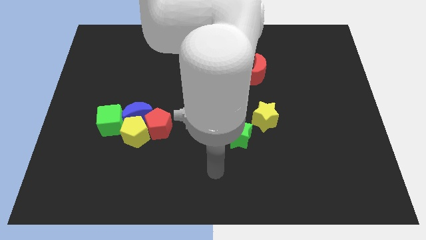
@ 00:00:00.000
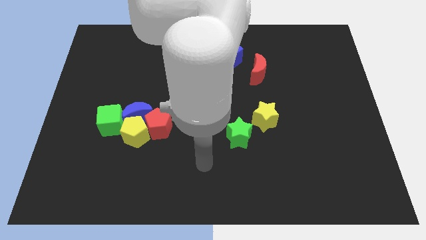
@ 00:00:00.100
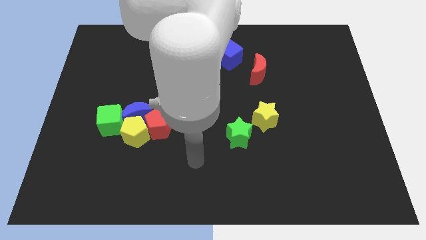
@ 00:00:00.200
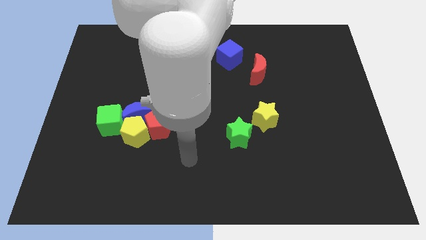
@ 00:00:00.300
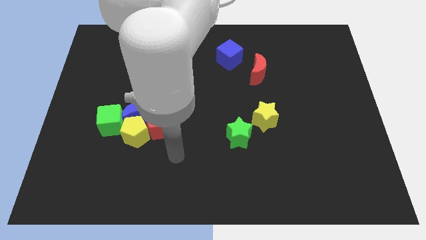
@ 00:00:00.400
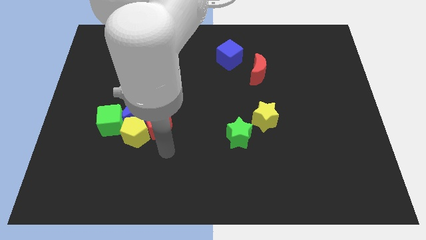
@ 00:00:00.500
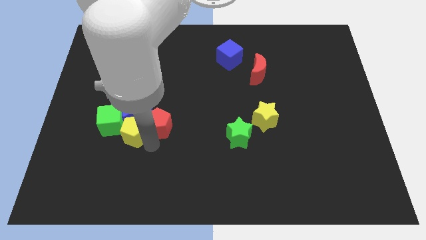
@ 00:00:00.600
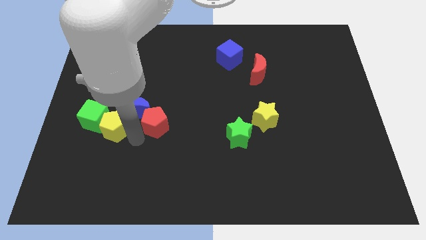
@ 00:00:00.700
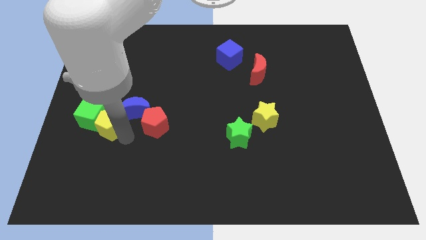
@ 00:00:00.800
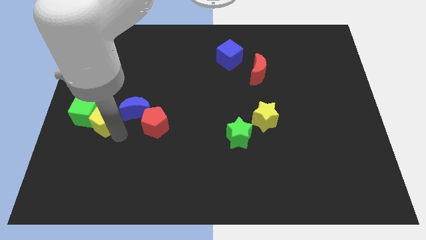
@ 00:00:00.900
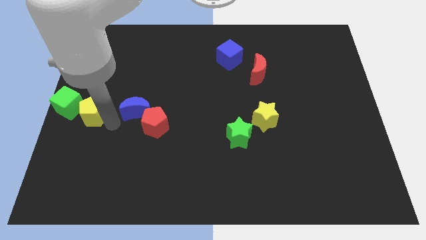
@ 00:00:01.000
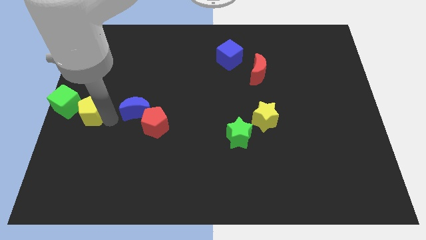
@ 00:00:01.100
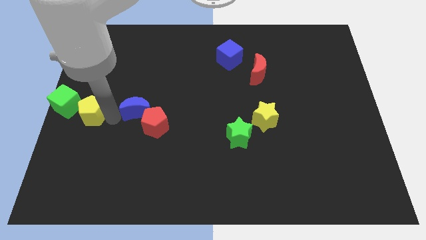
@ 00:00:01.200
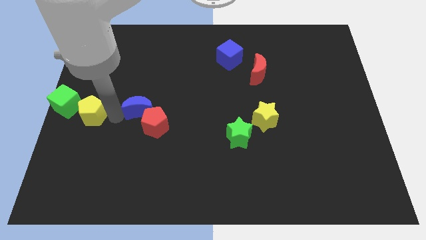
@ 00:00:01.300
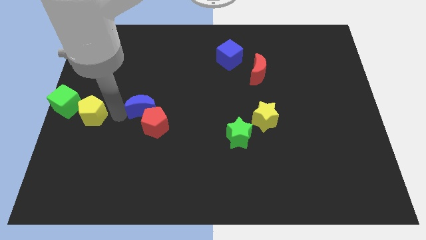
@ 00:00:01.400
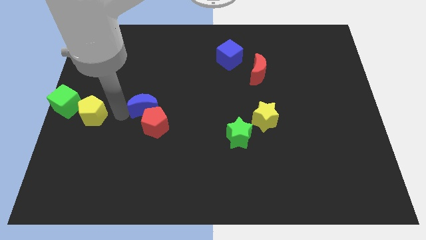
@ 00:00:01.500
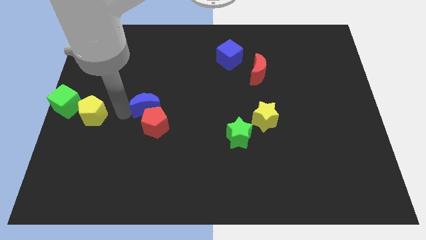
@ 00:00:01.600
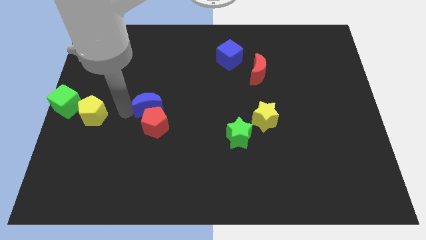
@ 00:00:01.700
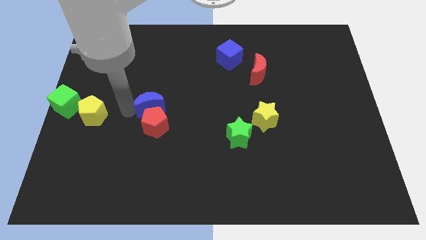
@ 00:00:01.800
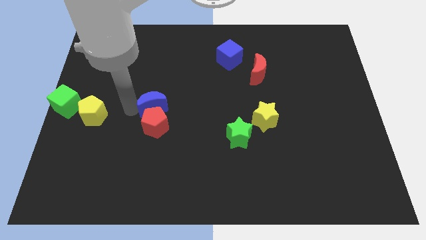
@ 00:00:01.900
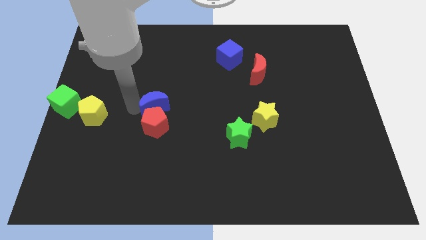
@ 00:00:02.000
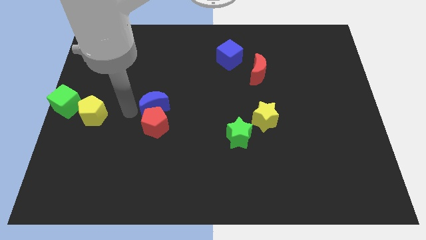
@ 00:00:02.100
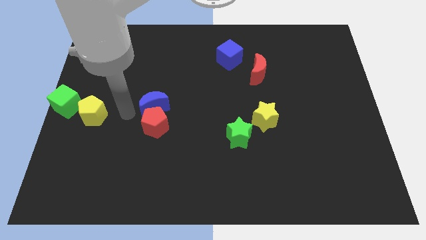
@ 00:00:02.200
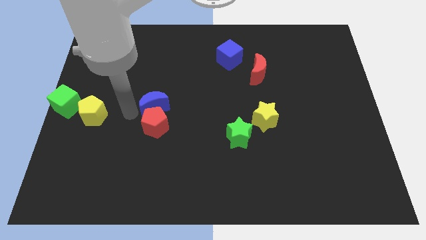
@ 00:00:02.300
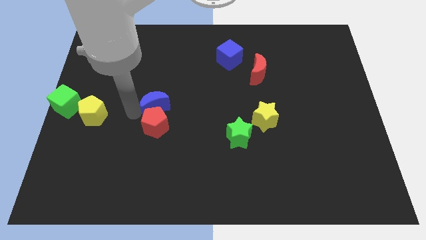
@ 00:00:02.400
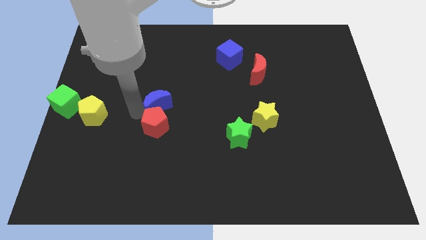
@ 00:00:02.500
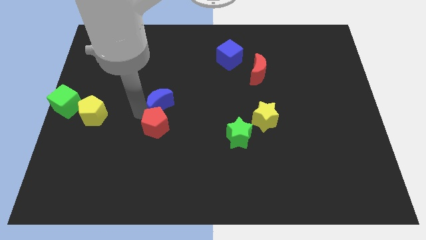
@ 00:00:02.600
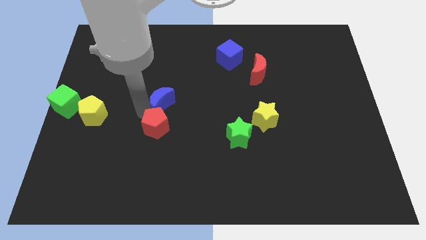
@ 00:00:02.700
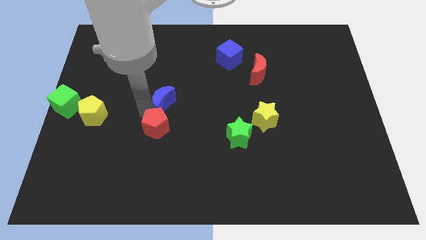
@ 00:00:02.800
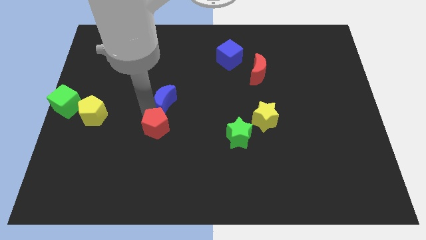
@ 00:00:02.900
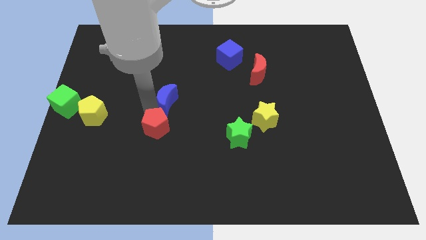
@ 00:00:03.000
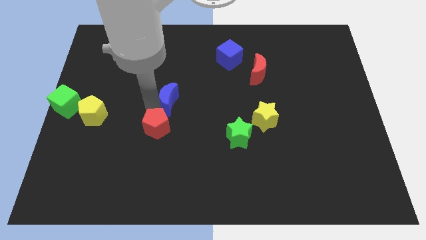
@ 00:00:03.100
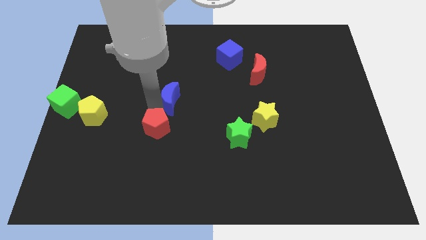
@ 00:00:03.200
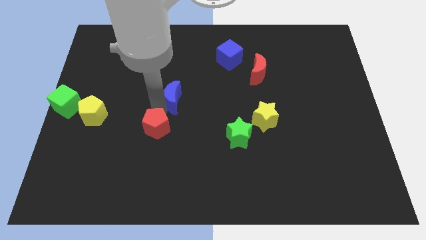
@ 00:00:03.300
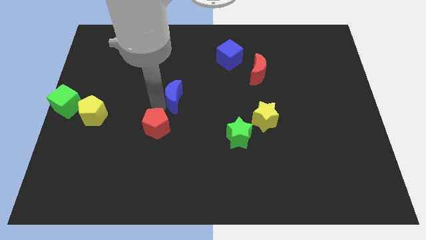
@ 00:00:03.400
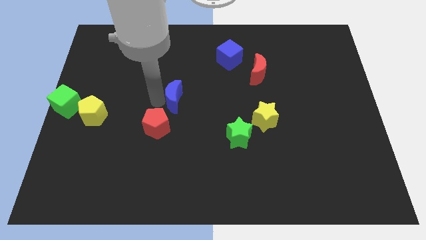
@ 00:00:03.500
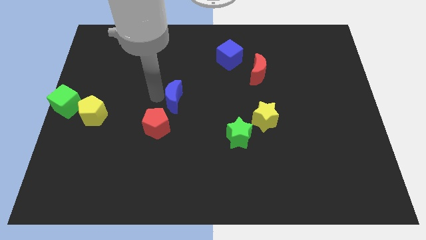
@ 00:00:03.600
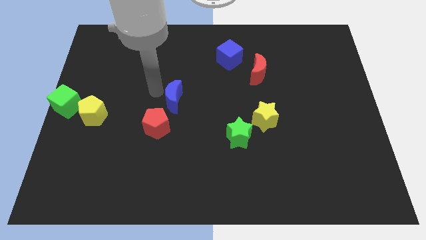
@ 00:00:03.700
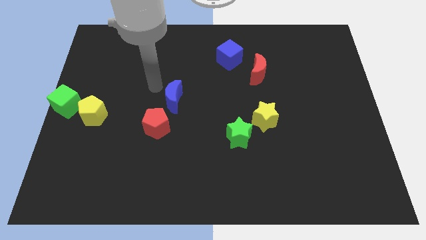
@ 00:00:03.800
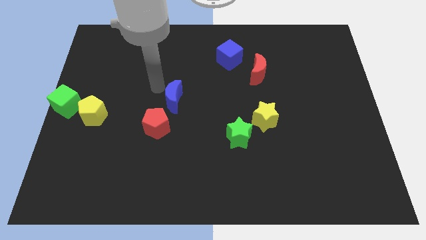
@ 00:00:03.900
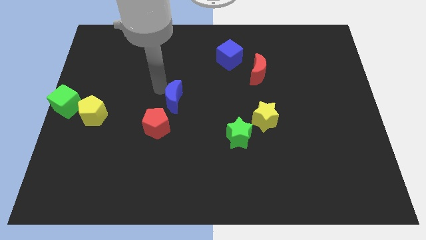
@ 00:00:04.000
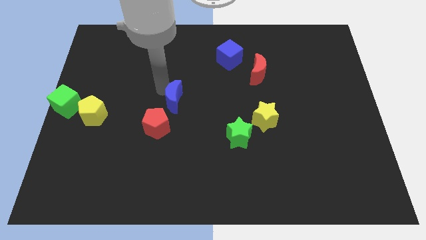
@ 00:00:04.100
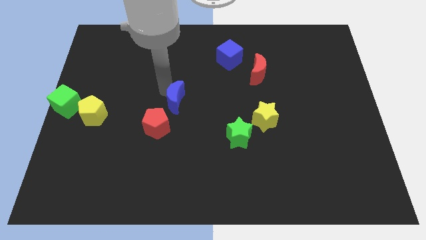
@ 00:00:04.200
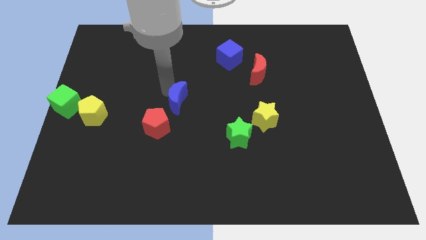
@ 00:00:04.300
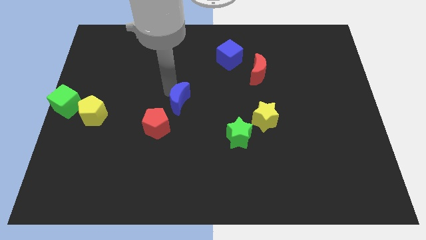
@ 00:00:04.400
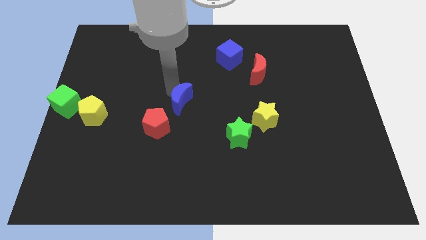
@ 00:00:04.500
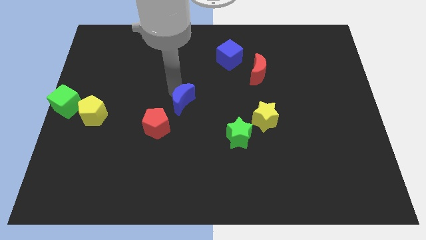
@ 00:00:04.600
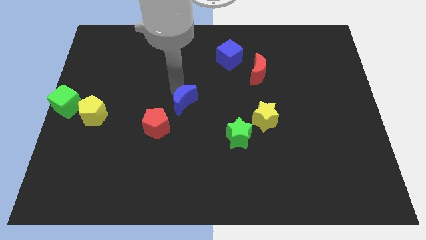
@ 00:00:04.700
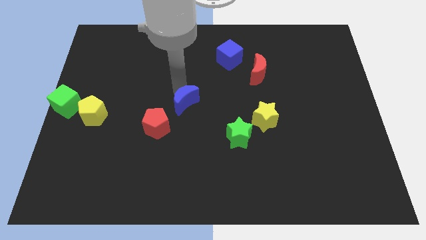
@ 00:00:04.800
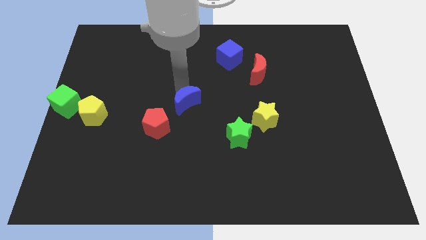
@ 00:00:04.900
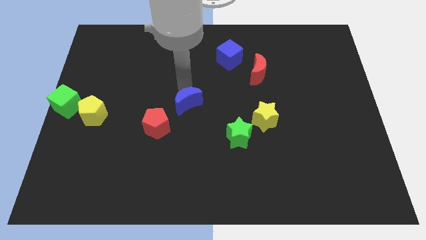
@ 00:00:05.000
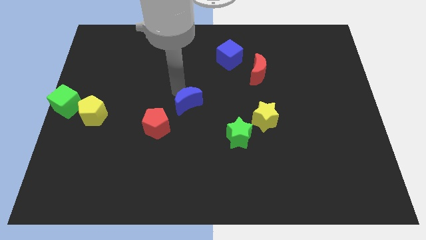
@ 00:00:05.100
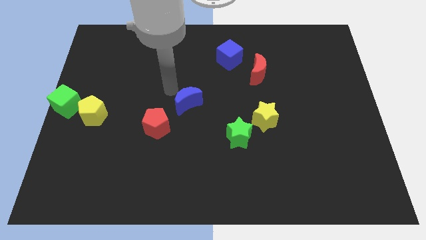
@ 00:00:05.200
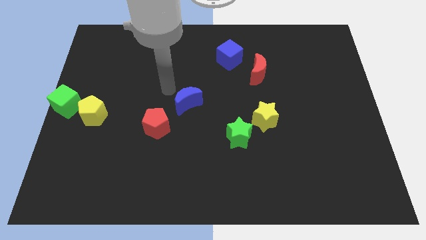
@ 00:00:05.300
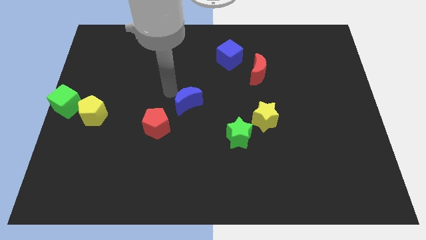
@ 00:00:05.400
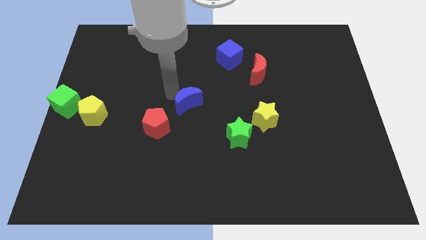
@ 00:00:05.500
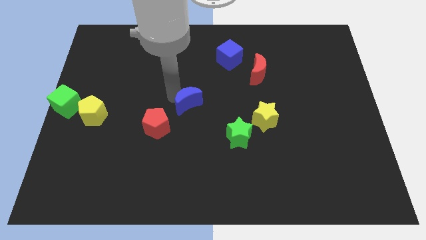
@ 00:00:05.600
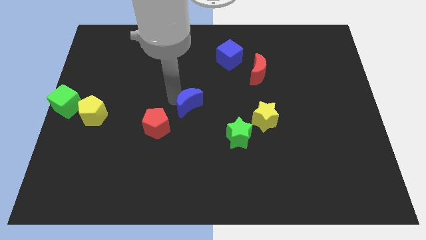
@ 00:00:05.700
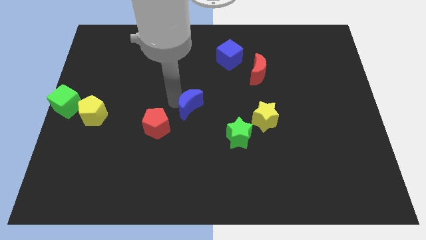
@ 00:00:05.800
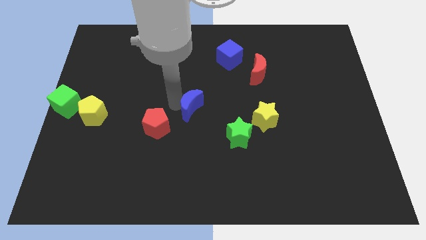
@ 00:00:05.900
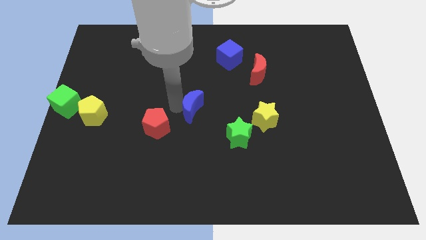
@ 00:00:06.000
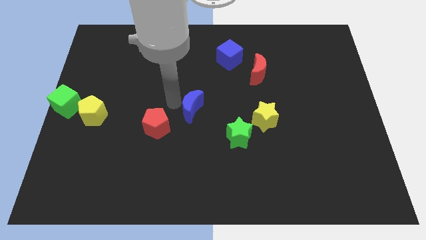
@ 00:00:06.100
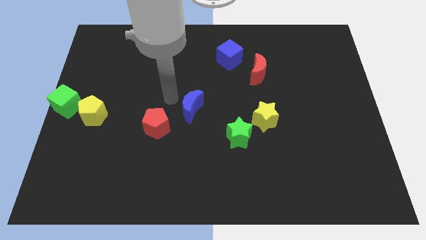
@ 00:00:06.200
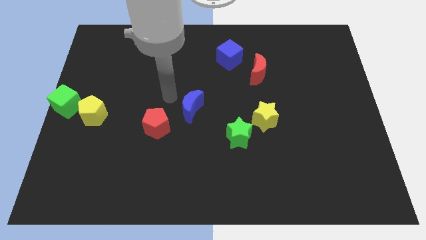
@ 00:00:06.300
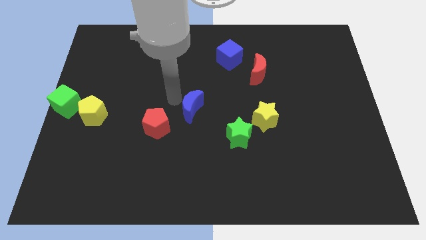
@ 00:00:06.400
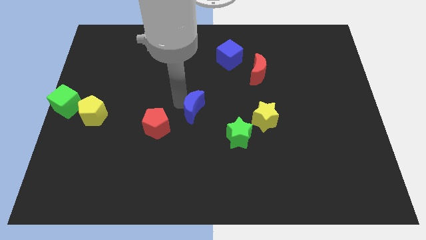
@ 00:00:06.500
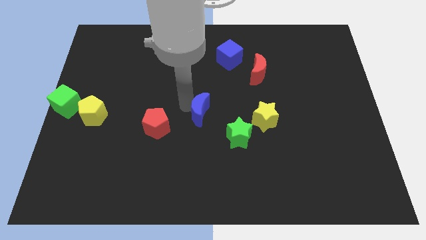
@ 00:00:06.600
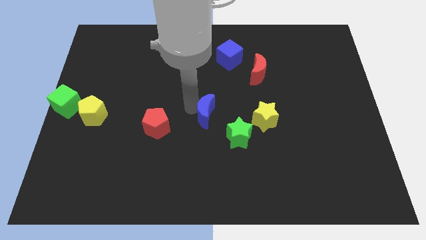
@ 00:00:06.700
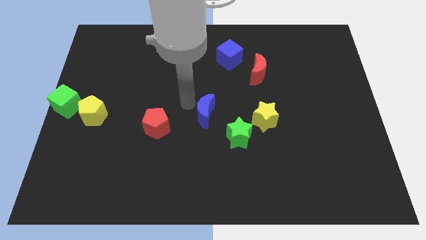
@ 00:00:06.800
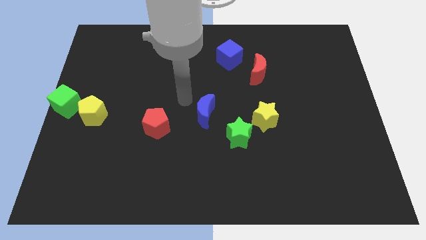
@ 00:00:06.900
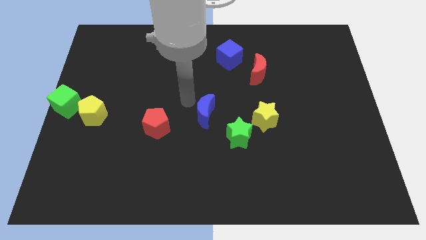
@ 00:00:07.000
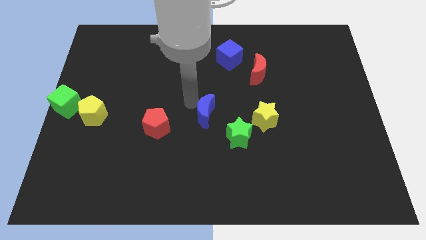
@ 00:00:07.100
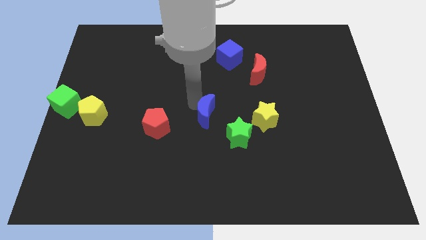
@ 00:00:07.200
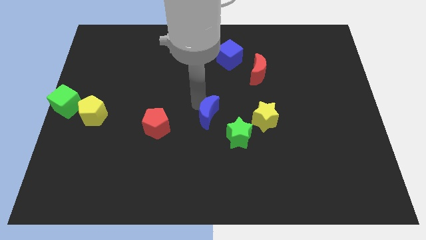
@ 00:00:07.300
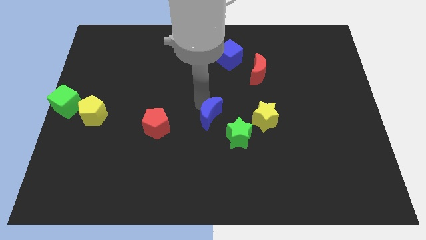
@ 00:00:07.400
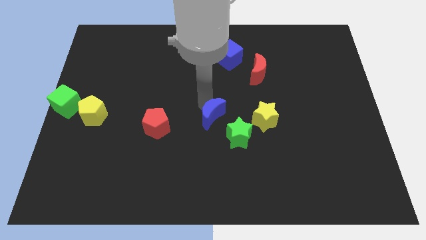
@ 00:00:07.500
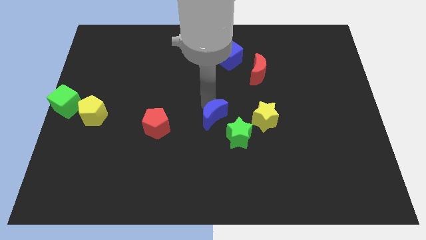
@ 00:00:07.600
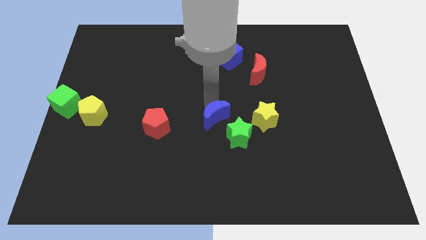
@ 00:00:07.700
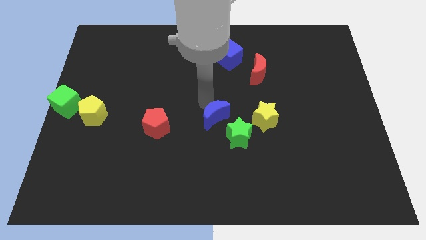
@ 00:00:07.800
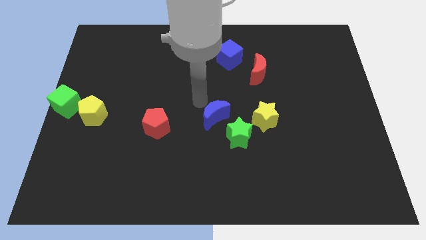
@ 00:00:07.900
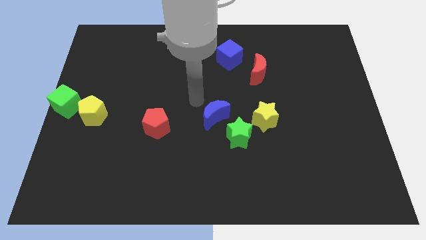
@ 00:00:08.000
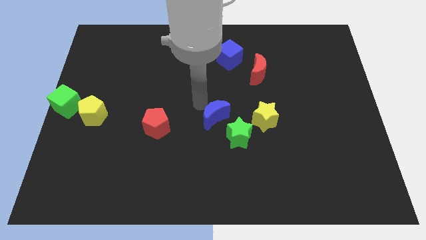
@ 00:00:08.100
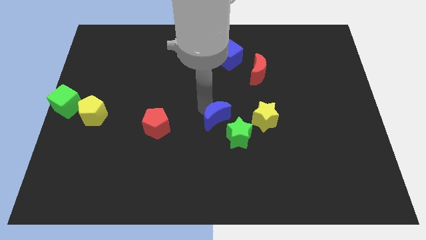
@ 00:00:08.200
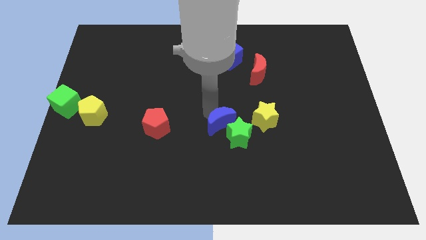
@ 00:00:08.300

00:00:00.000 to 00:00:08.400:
push the blue moon close to the green star

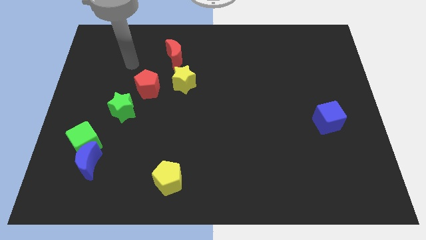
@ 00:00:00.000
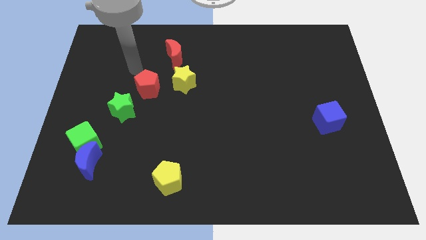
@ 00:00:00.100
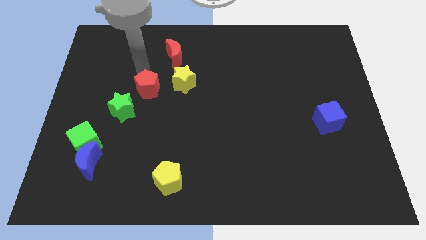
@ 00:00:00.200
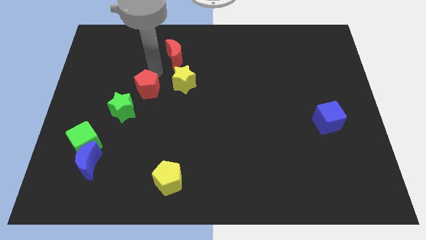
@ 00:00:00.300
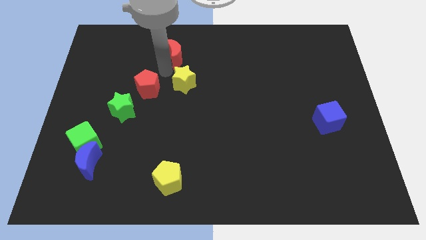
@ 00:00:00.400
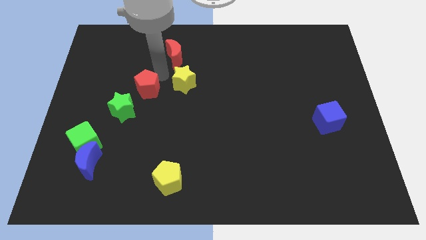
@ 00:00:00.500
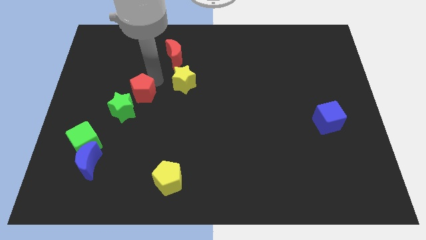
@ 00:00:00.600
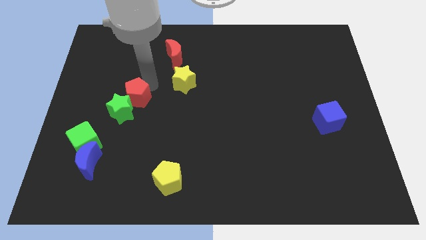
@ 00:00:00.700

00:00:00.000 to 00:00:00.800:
put the red pentagon next to the green star
